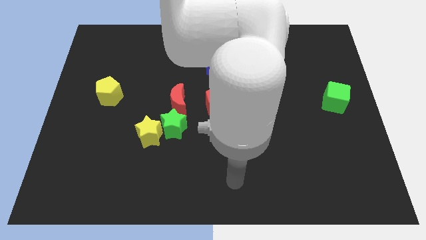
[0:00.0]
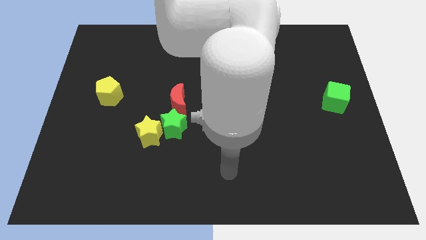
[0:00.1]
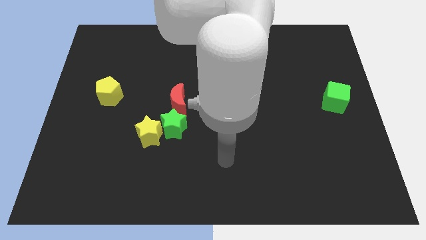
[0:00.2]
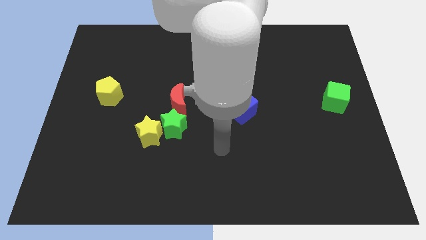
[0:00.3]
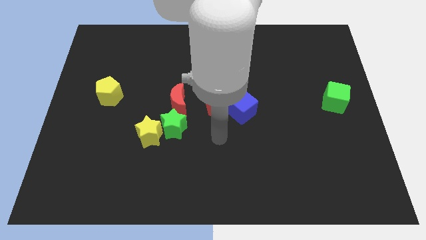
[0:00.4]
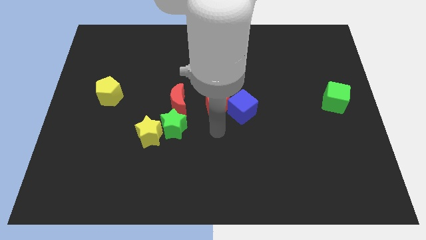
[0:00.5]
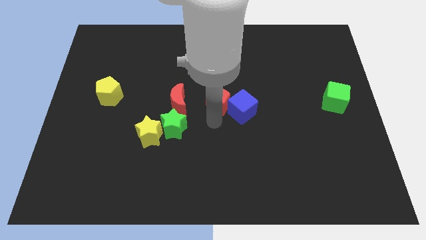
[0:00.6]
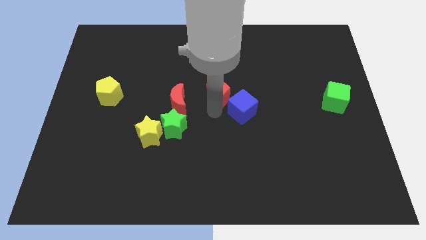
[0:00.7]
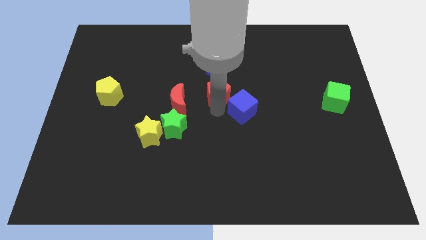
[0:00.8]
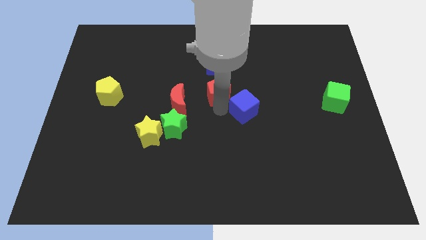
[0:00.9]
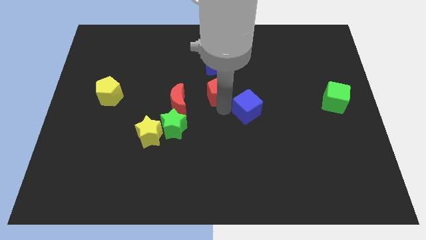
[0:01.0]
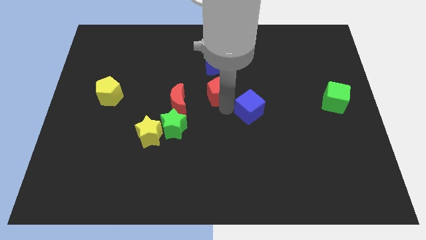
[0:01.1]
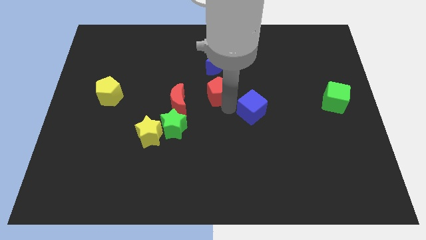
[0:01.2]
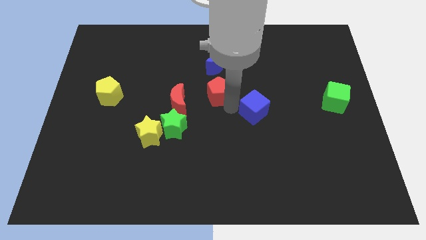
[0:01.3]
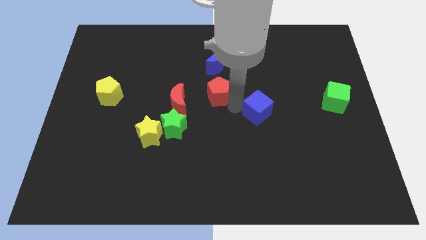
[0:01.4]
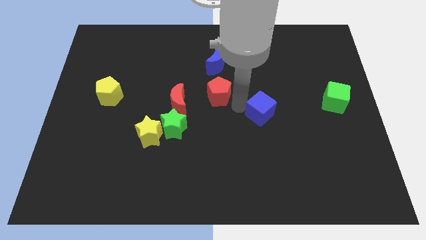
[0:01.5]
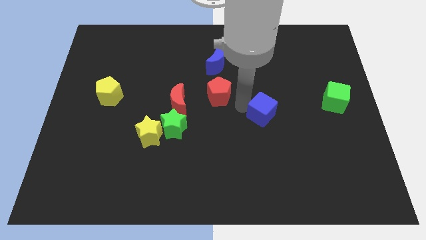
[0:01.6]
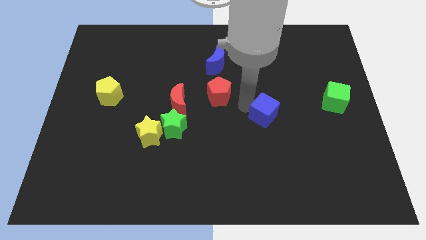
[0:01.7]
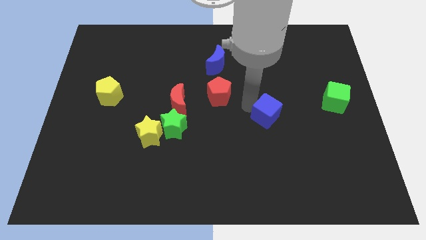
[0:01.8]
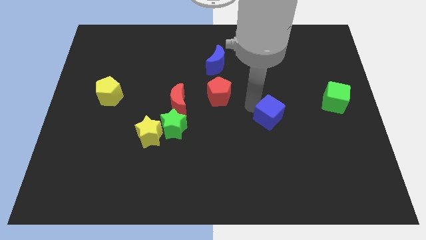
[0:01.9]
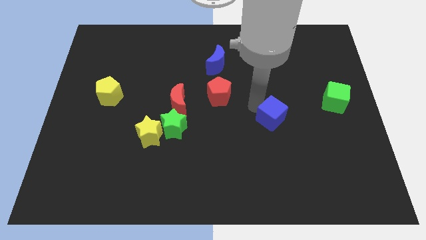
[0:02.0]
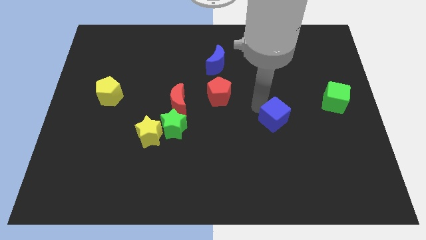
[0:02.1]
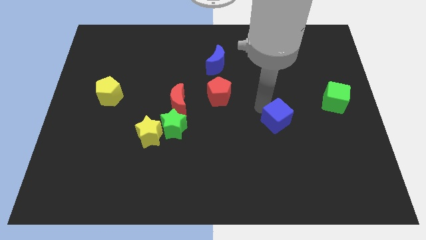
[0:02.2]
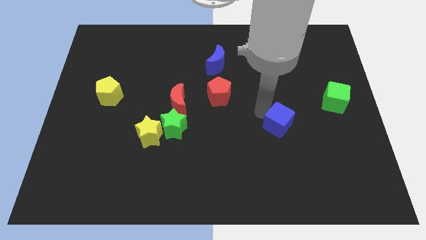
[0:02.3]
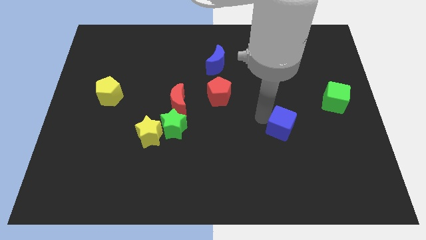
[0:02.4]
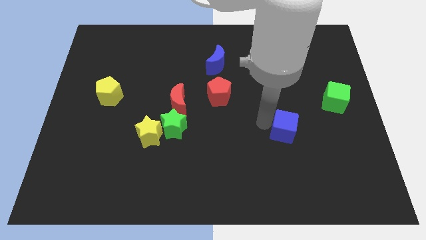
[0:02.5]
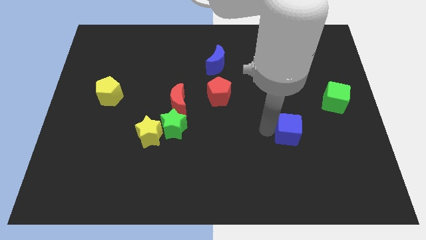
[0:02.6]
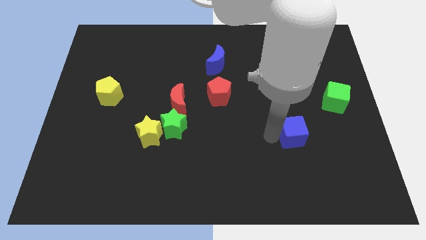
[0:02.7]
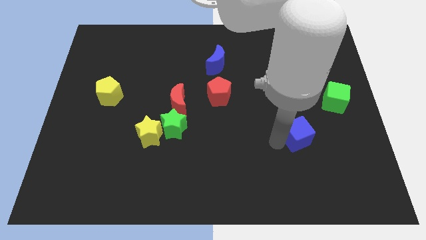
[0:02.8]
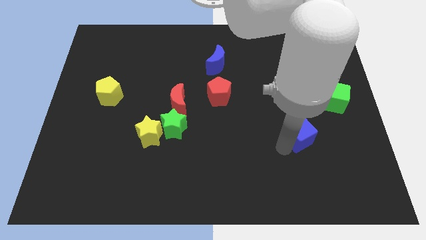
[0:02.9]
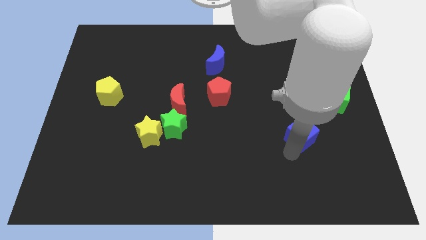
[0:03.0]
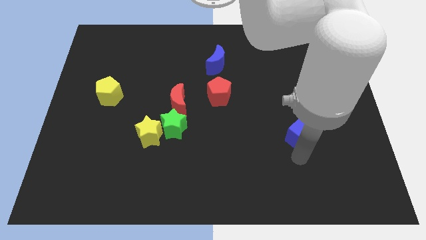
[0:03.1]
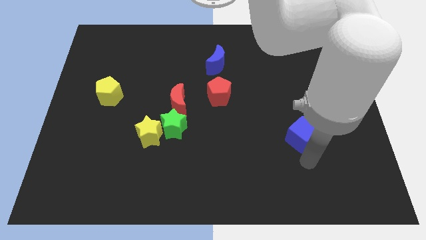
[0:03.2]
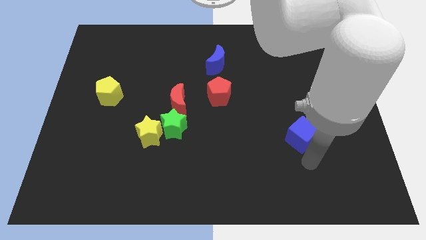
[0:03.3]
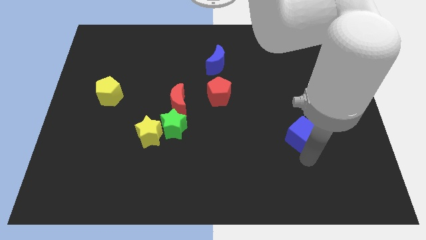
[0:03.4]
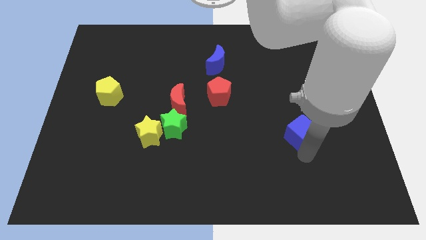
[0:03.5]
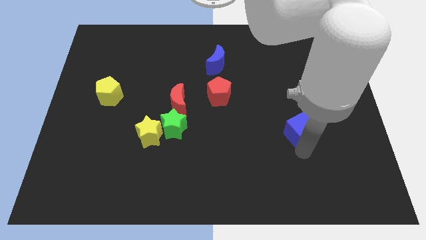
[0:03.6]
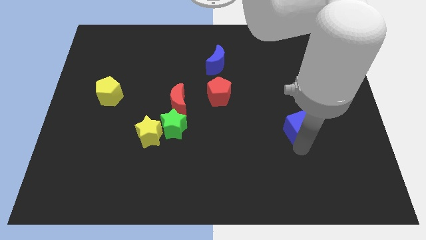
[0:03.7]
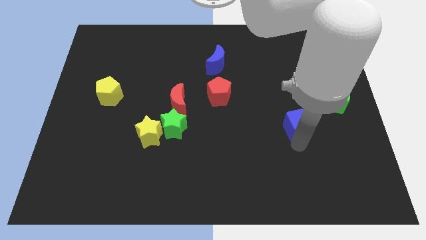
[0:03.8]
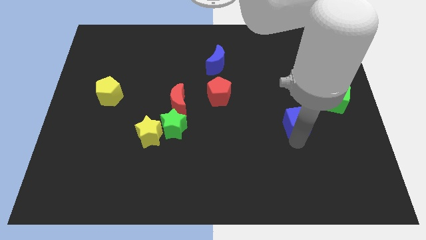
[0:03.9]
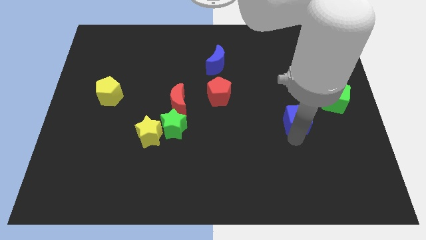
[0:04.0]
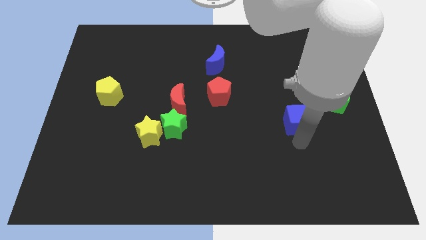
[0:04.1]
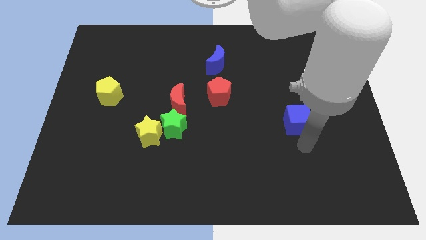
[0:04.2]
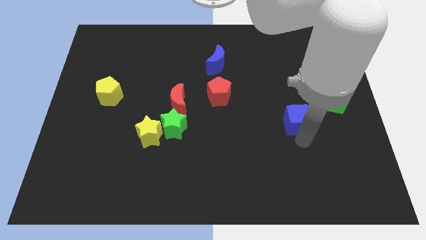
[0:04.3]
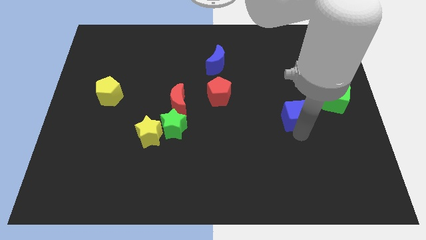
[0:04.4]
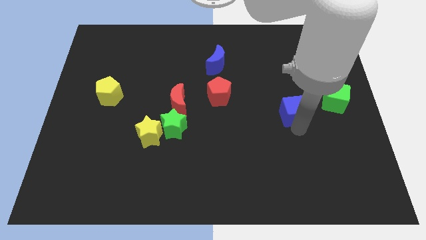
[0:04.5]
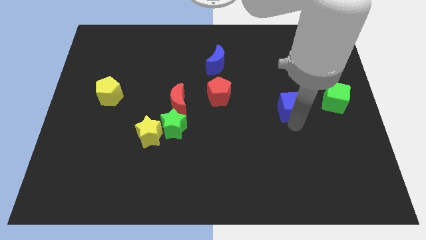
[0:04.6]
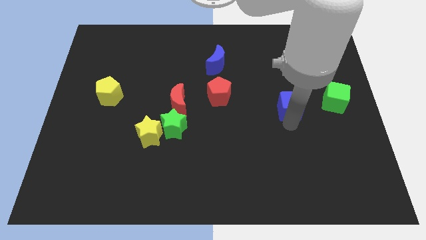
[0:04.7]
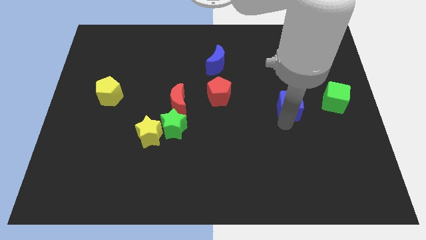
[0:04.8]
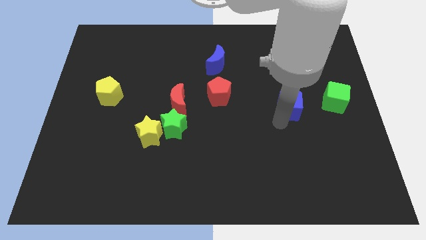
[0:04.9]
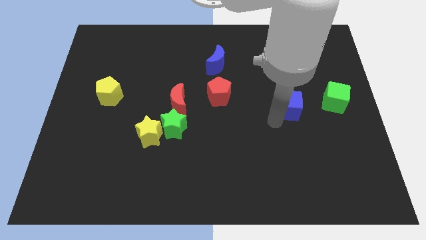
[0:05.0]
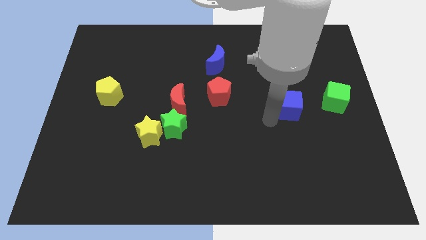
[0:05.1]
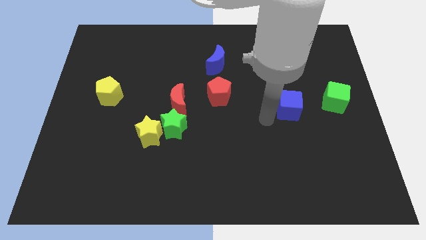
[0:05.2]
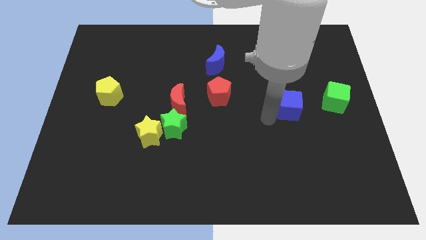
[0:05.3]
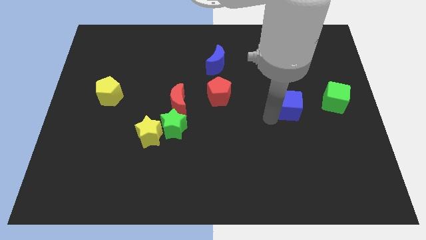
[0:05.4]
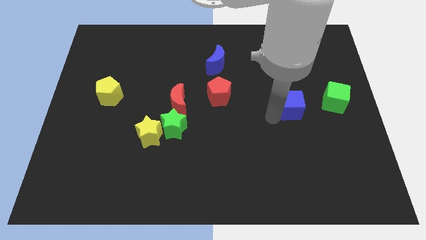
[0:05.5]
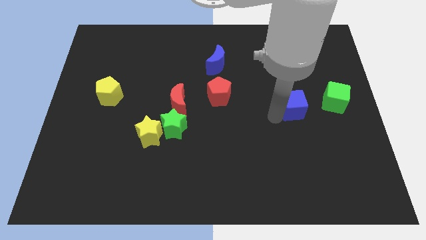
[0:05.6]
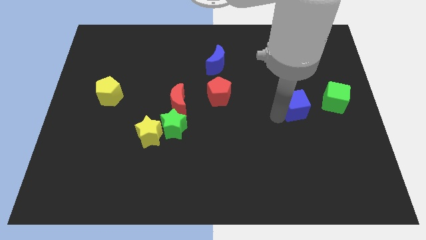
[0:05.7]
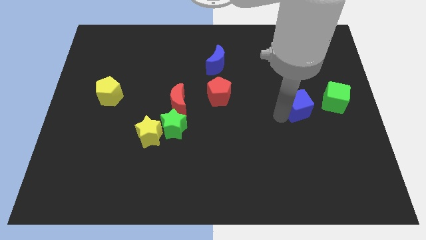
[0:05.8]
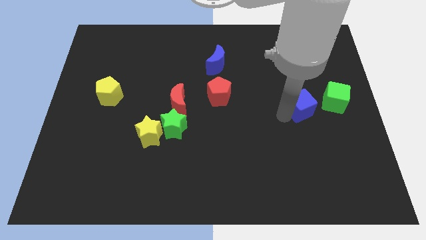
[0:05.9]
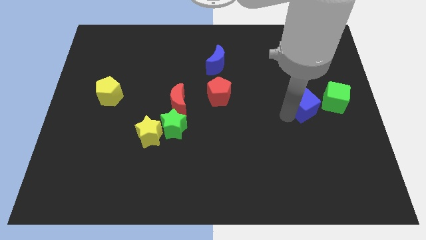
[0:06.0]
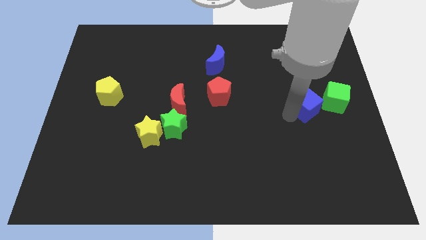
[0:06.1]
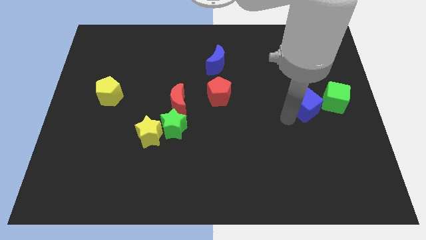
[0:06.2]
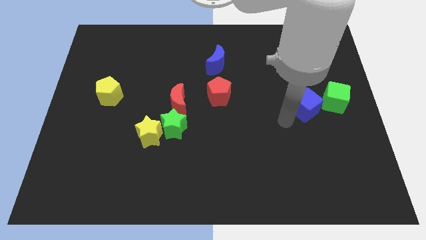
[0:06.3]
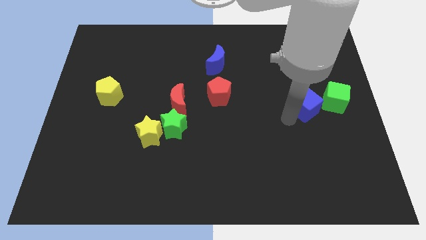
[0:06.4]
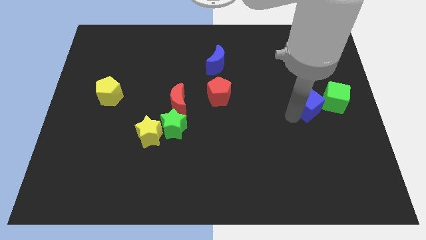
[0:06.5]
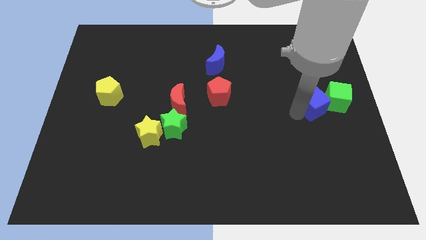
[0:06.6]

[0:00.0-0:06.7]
put the blue cube towards the green cube

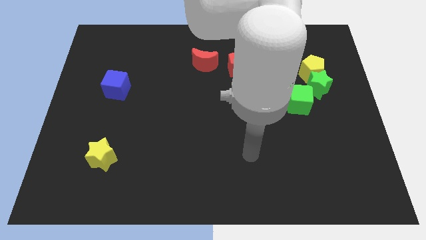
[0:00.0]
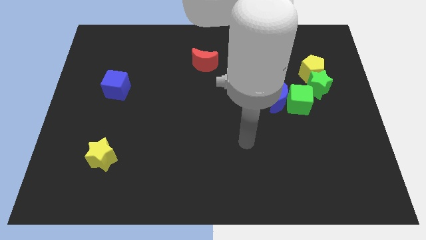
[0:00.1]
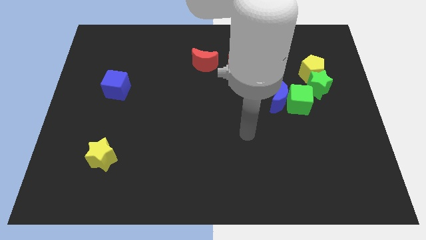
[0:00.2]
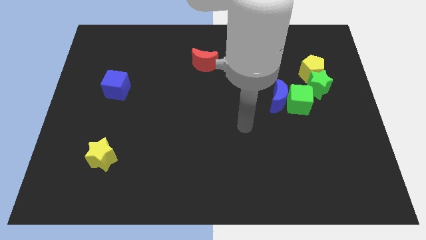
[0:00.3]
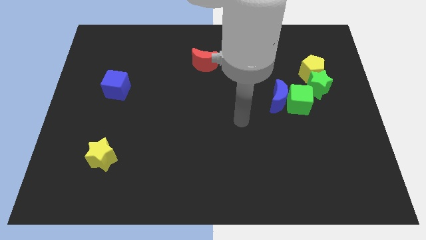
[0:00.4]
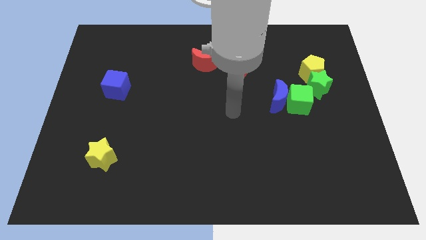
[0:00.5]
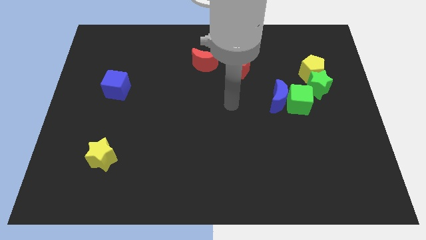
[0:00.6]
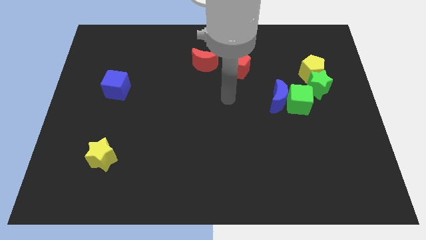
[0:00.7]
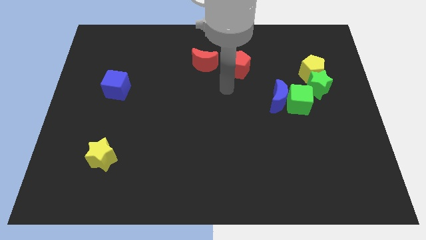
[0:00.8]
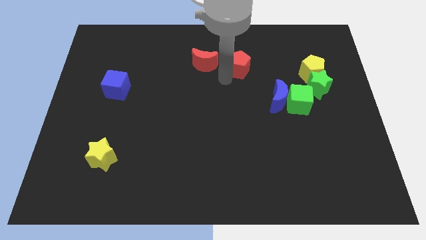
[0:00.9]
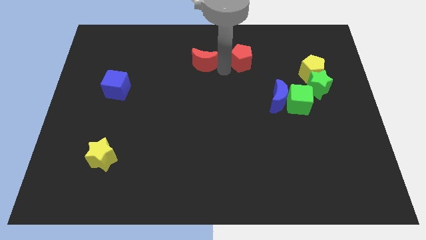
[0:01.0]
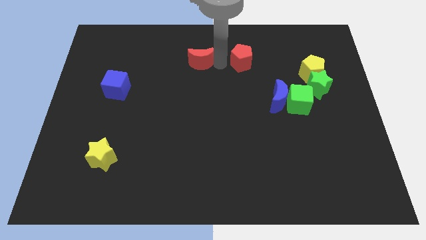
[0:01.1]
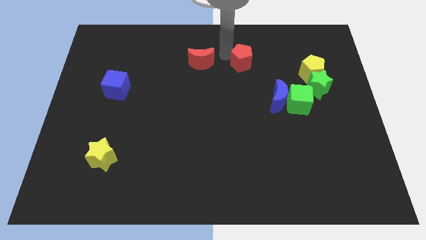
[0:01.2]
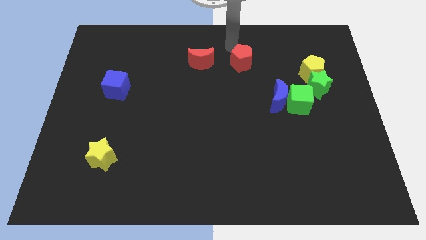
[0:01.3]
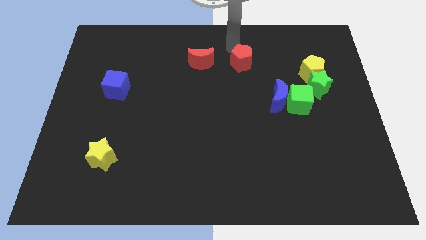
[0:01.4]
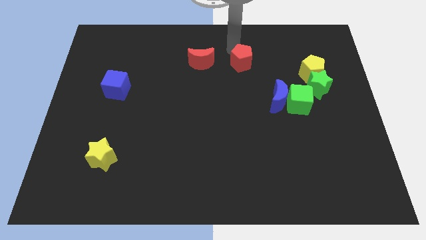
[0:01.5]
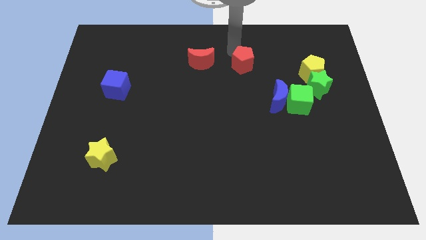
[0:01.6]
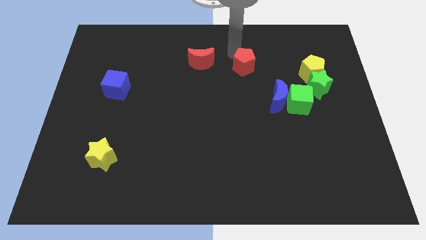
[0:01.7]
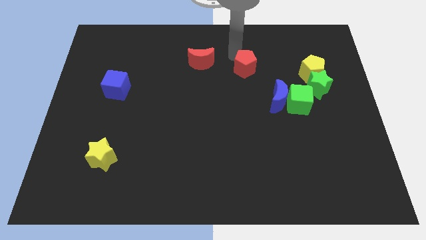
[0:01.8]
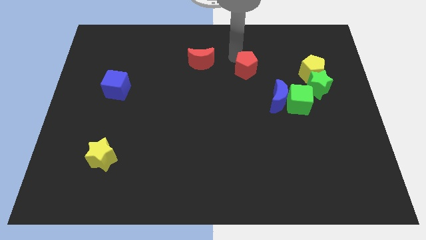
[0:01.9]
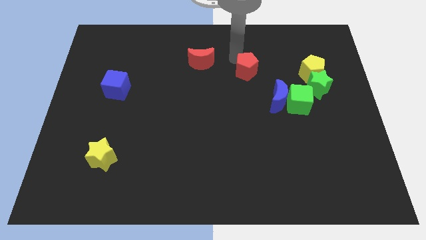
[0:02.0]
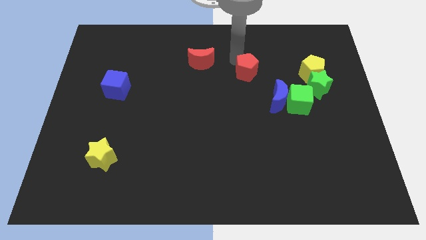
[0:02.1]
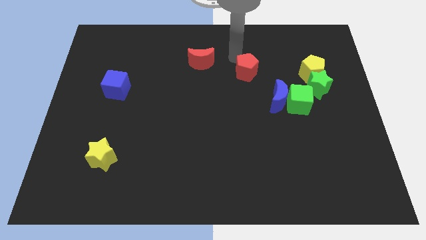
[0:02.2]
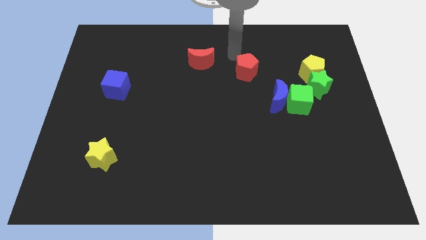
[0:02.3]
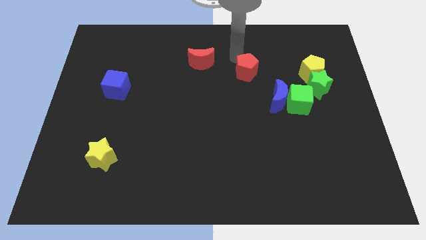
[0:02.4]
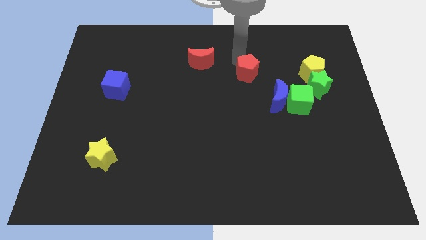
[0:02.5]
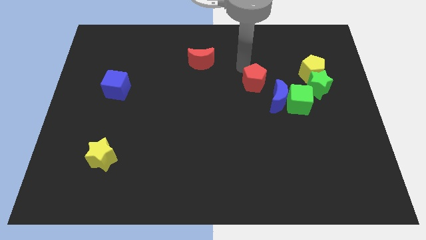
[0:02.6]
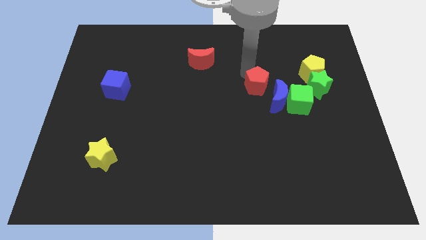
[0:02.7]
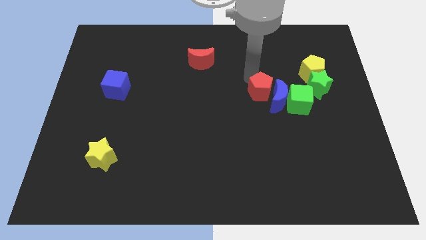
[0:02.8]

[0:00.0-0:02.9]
move the red pentagon towards the blue moon
